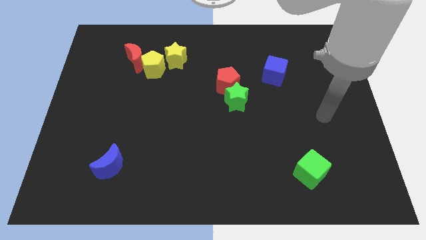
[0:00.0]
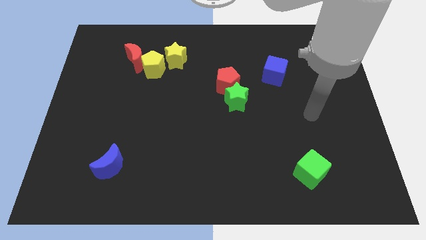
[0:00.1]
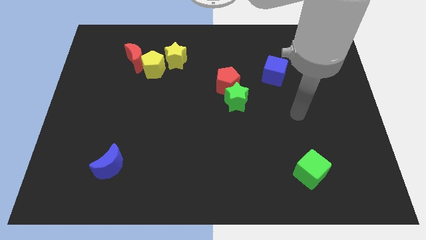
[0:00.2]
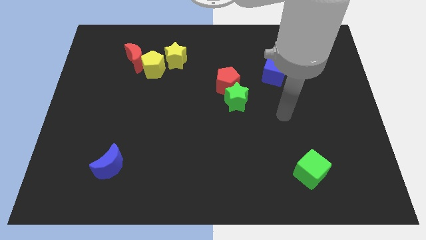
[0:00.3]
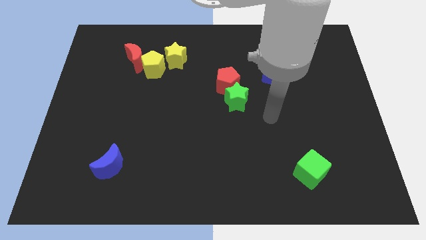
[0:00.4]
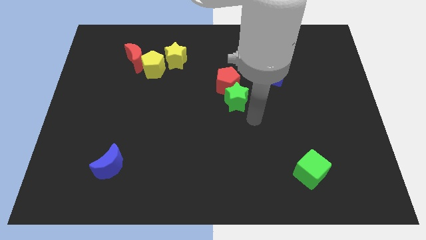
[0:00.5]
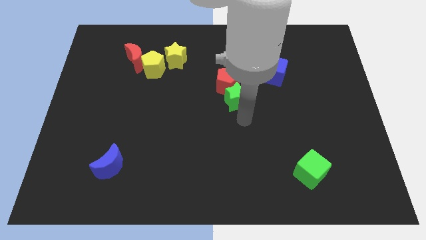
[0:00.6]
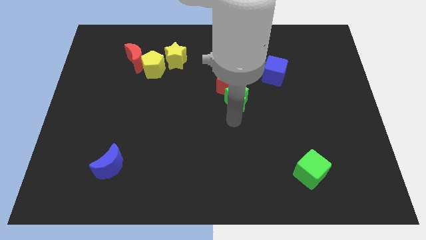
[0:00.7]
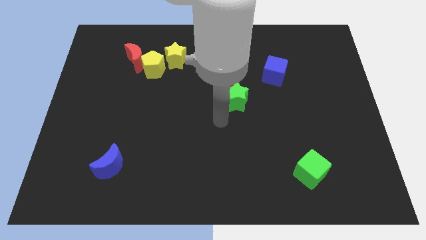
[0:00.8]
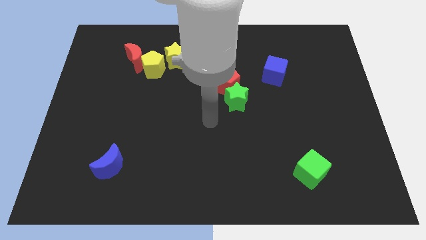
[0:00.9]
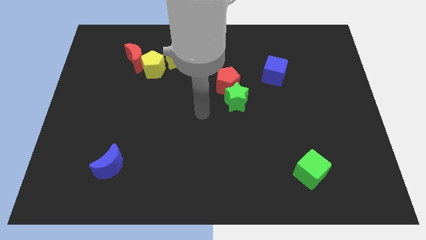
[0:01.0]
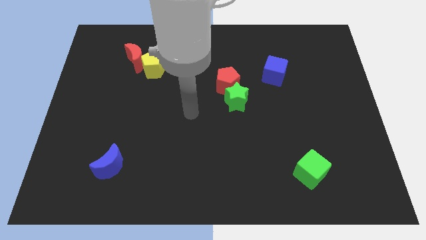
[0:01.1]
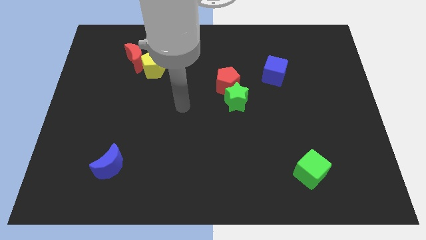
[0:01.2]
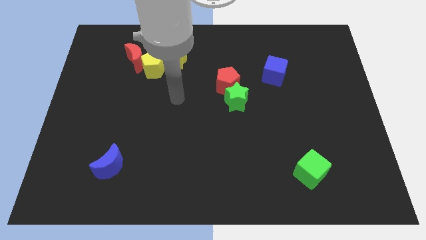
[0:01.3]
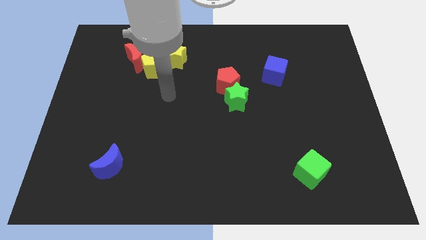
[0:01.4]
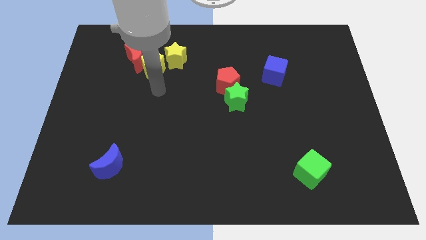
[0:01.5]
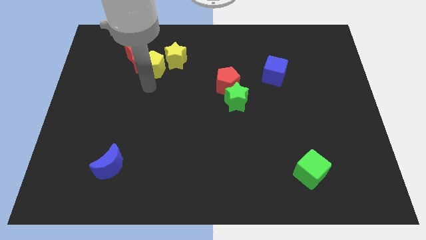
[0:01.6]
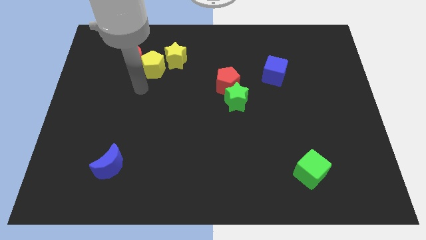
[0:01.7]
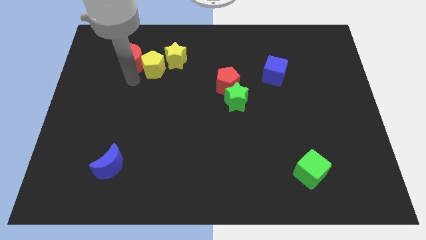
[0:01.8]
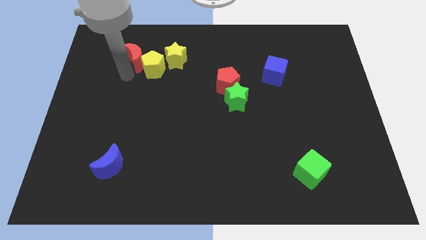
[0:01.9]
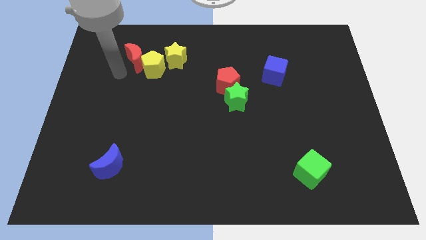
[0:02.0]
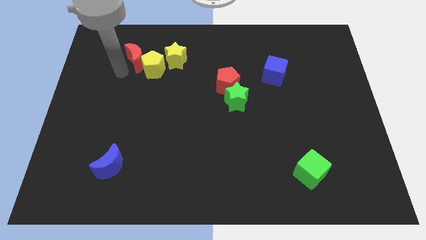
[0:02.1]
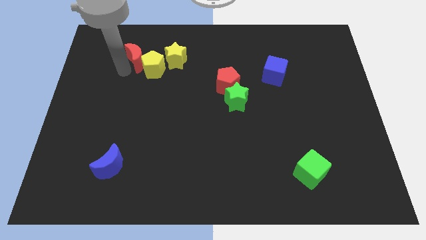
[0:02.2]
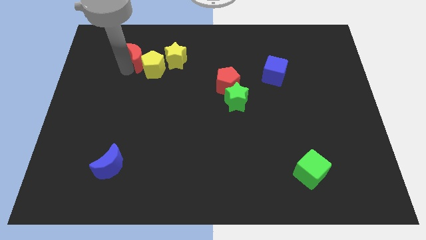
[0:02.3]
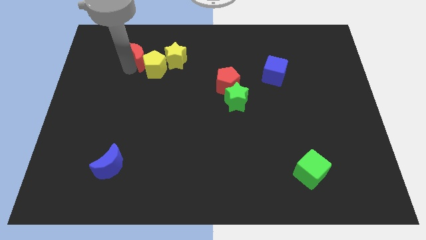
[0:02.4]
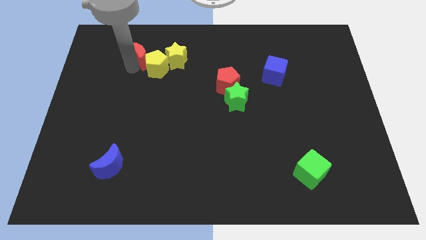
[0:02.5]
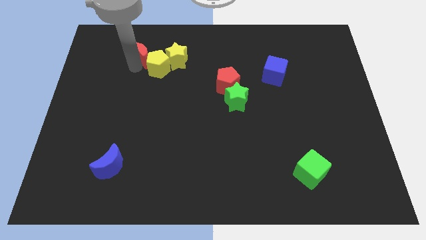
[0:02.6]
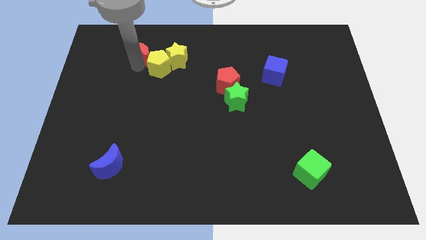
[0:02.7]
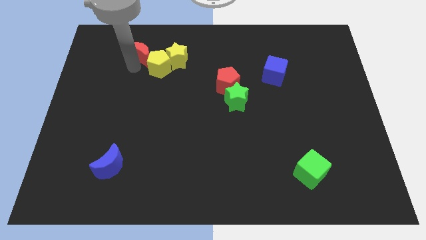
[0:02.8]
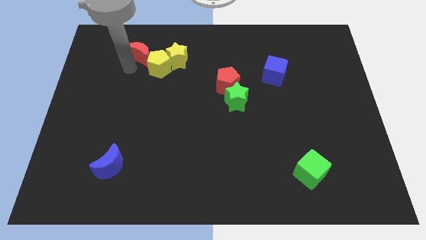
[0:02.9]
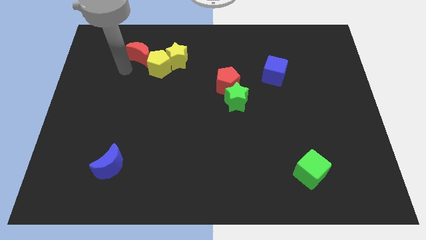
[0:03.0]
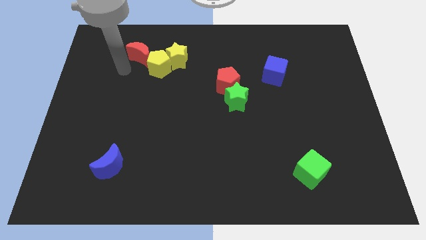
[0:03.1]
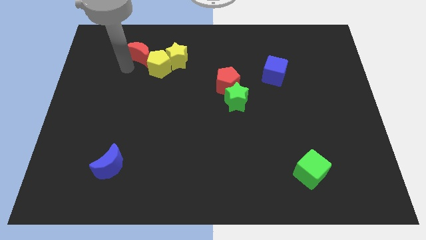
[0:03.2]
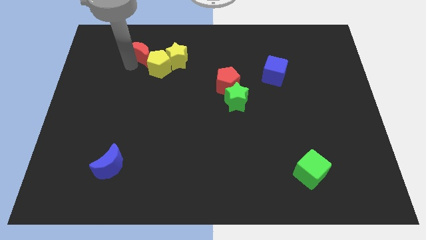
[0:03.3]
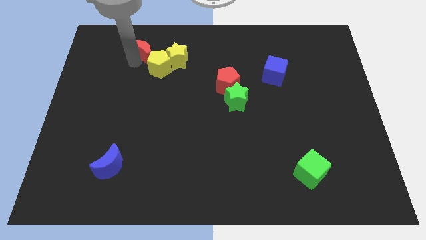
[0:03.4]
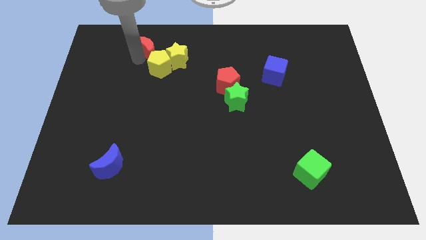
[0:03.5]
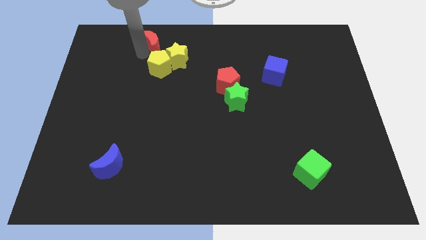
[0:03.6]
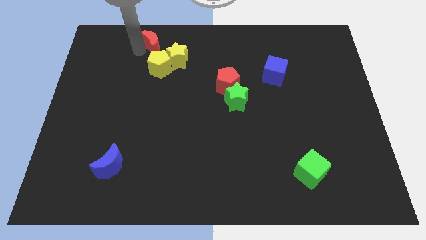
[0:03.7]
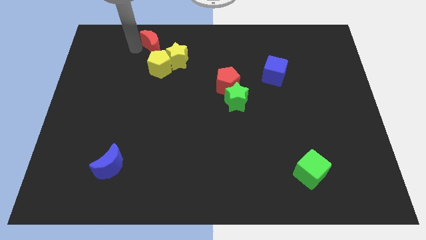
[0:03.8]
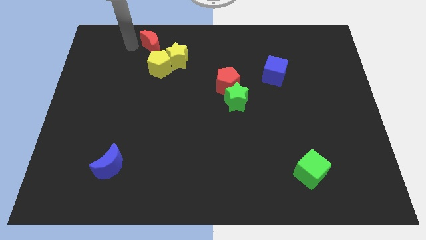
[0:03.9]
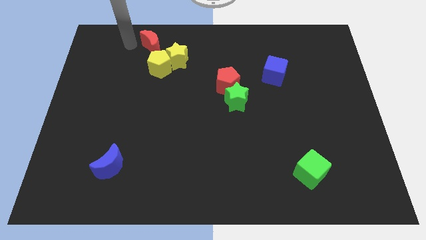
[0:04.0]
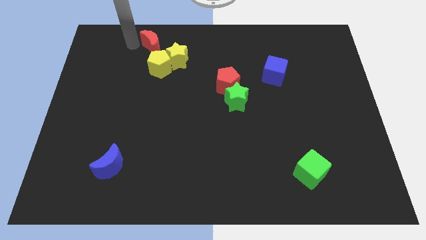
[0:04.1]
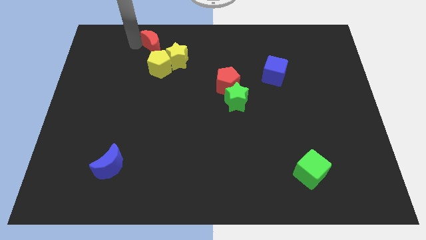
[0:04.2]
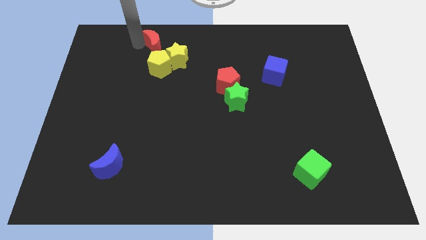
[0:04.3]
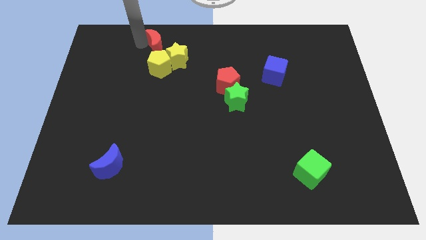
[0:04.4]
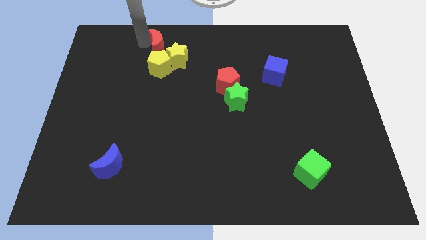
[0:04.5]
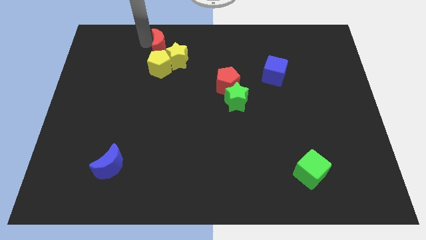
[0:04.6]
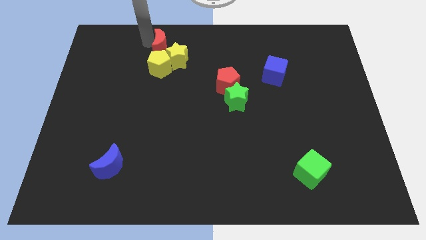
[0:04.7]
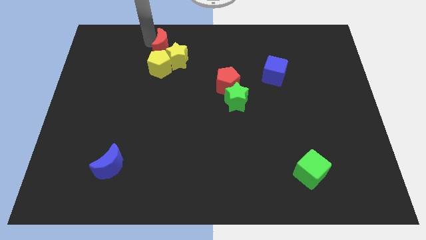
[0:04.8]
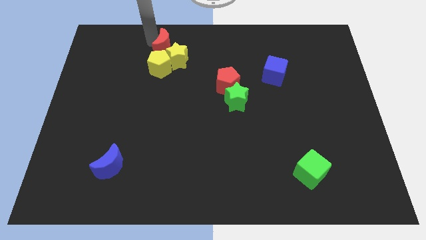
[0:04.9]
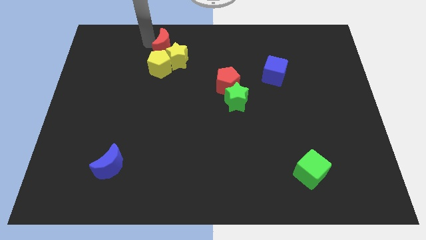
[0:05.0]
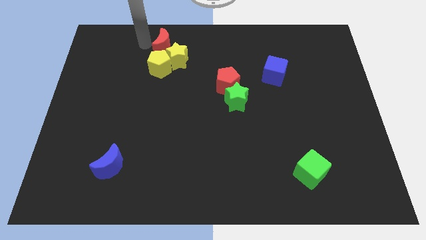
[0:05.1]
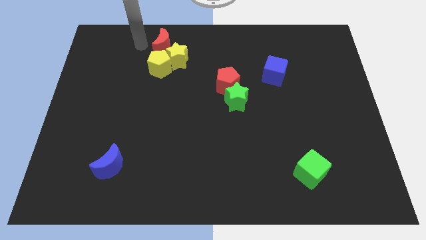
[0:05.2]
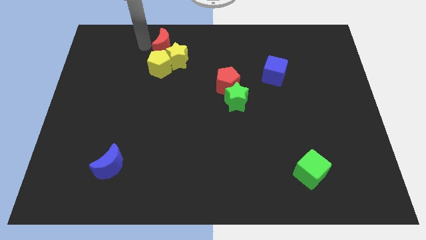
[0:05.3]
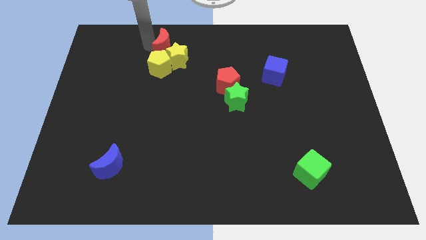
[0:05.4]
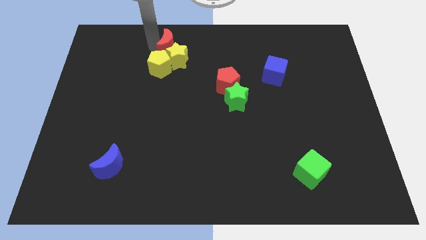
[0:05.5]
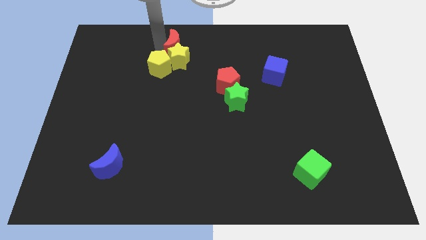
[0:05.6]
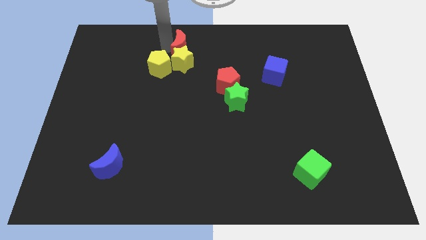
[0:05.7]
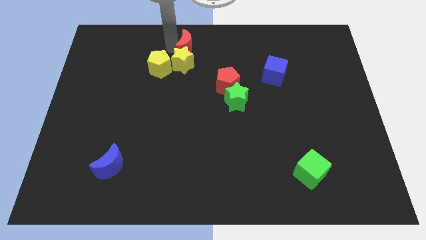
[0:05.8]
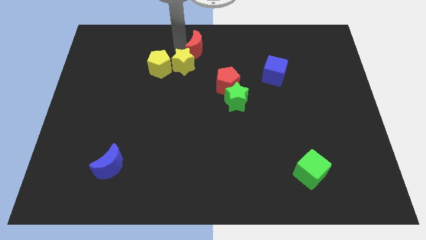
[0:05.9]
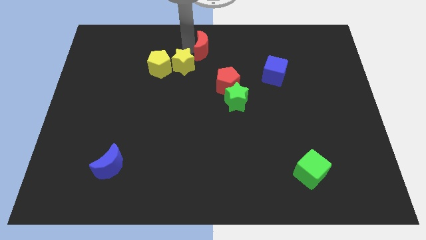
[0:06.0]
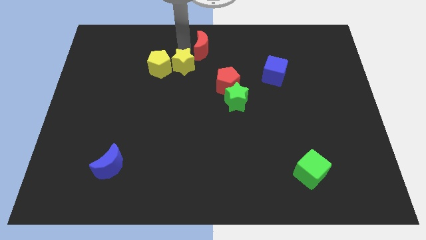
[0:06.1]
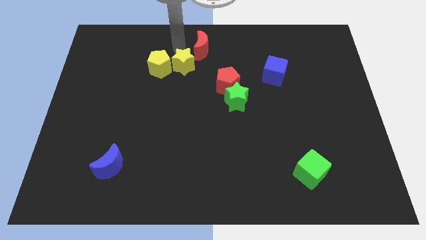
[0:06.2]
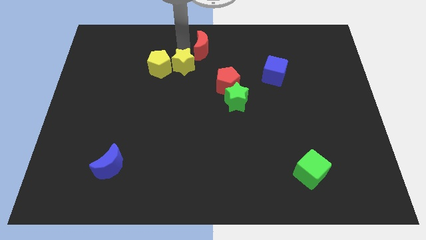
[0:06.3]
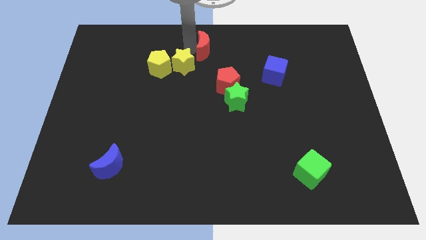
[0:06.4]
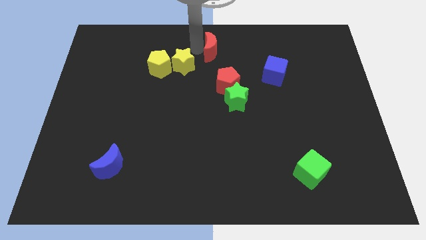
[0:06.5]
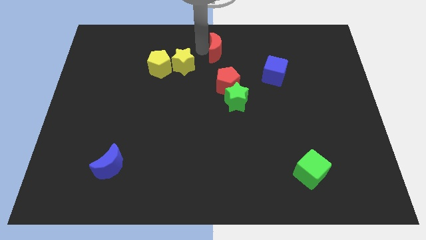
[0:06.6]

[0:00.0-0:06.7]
slide the red moon right

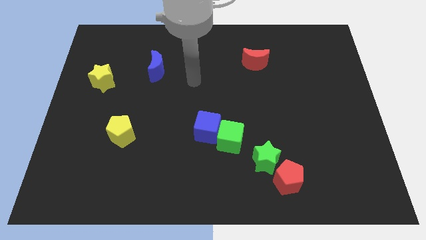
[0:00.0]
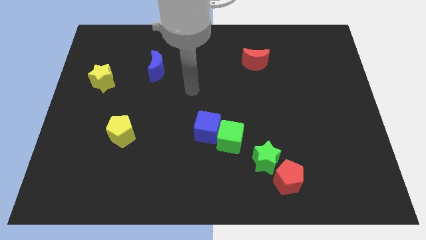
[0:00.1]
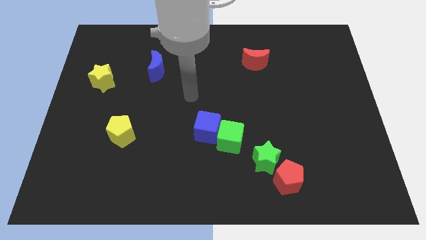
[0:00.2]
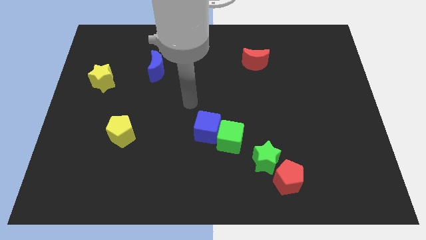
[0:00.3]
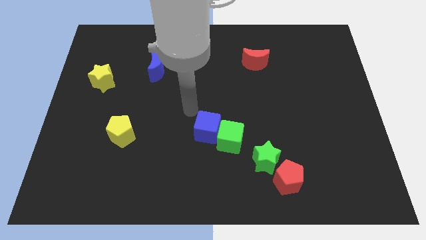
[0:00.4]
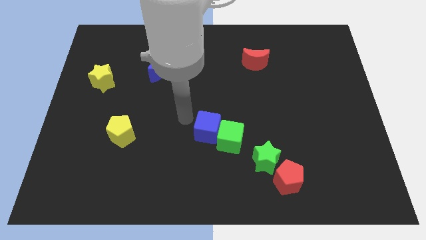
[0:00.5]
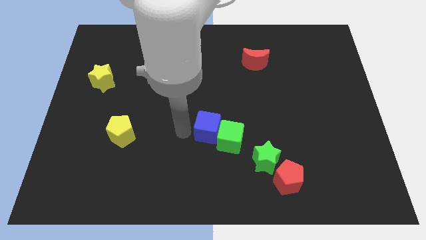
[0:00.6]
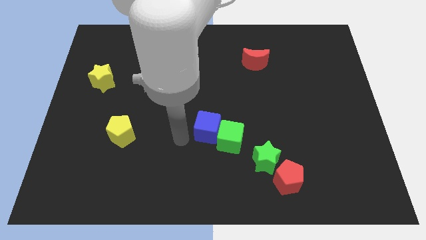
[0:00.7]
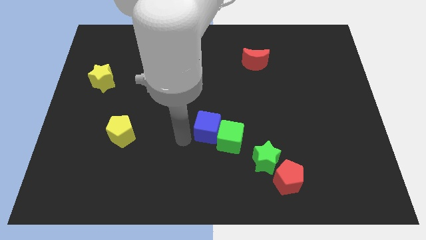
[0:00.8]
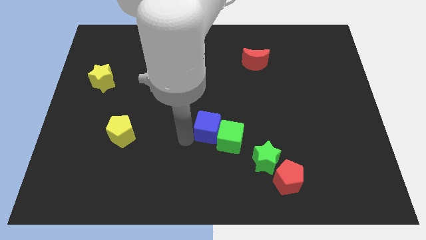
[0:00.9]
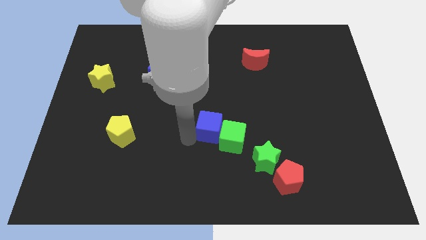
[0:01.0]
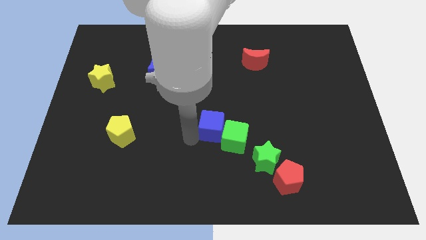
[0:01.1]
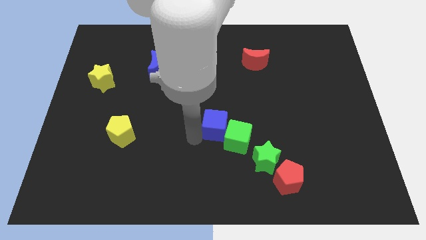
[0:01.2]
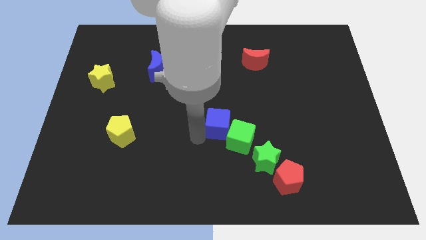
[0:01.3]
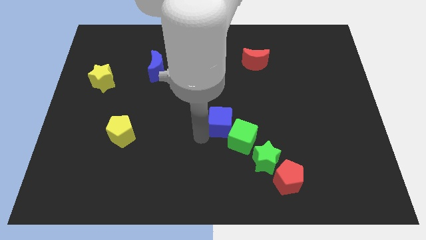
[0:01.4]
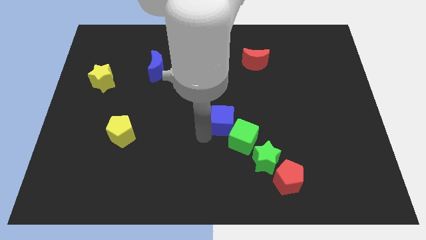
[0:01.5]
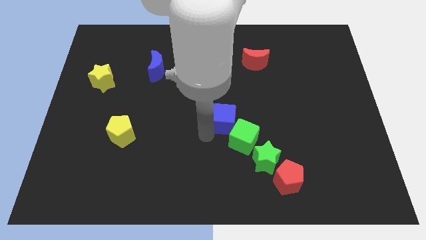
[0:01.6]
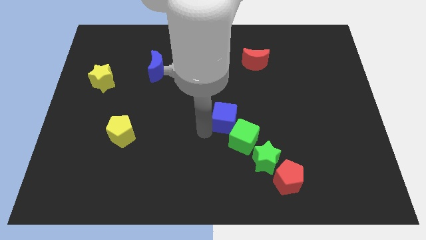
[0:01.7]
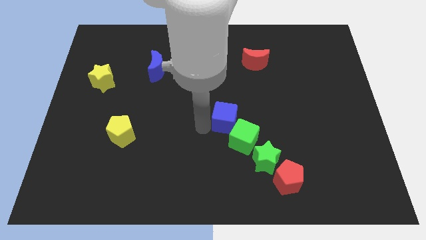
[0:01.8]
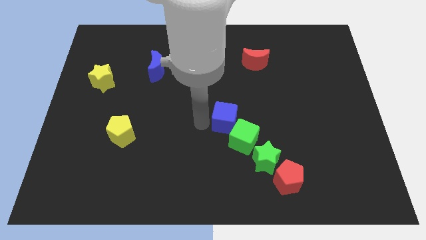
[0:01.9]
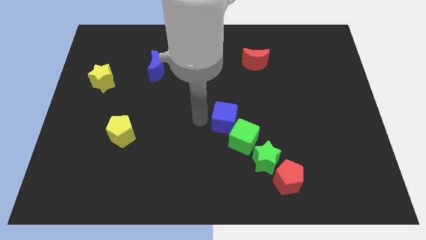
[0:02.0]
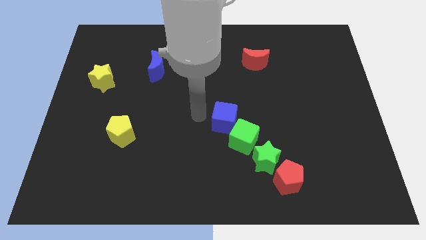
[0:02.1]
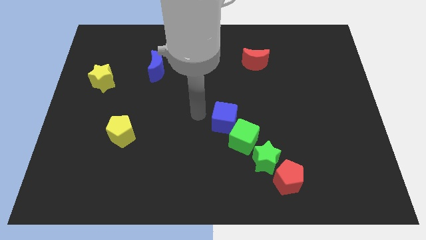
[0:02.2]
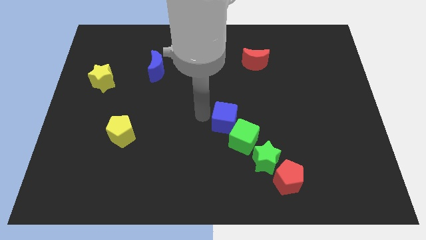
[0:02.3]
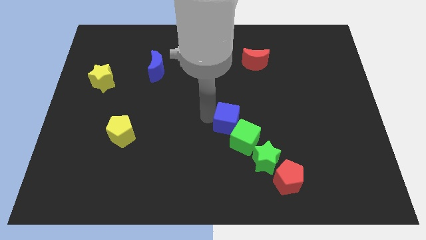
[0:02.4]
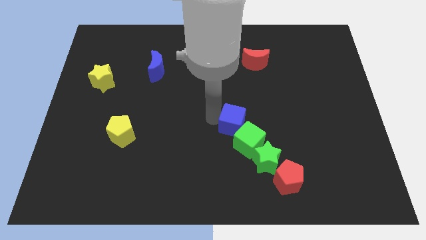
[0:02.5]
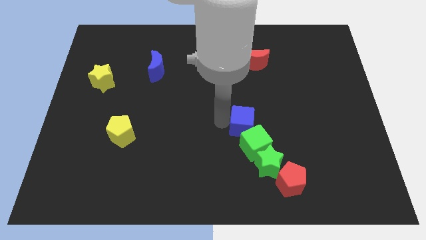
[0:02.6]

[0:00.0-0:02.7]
push the blue cube a little bit to the right
